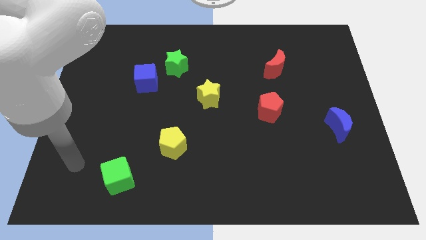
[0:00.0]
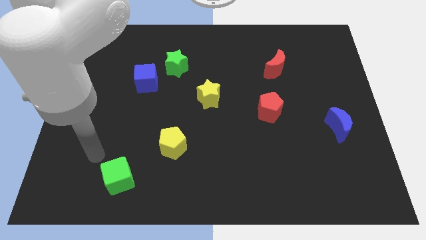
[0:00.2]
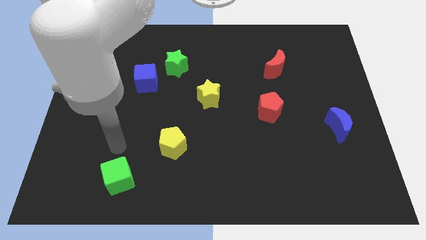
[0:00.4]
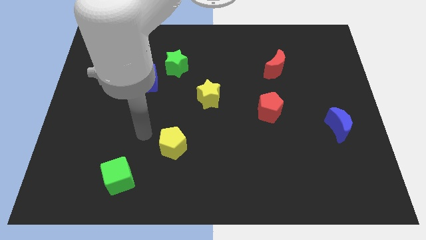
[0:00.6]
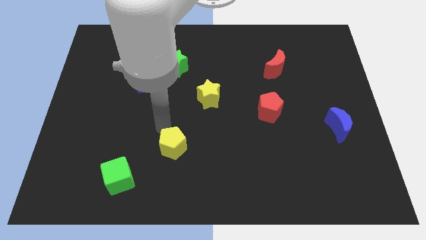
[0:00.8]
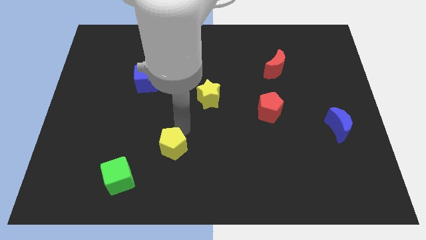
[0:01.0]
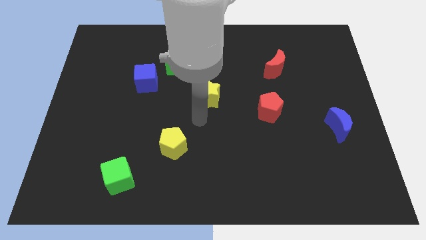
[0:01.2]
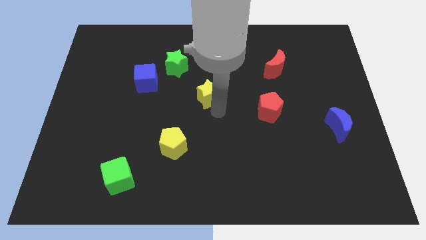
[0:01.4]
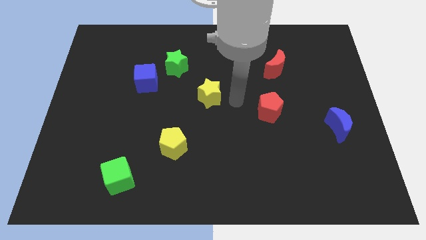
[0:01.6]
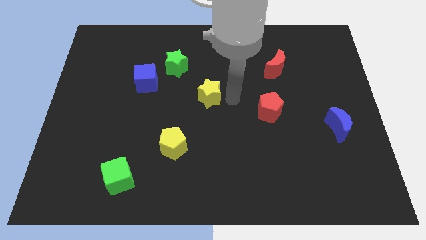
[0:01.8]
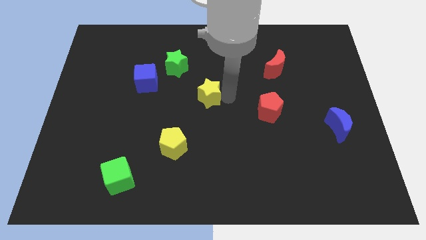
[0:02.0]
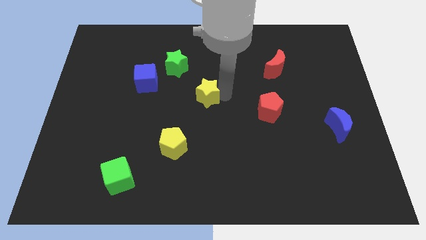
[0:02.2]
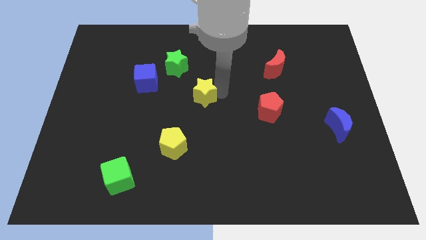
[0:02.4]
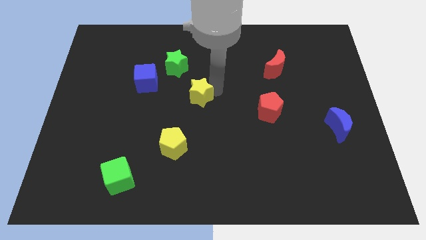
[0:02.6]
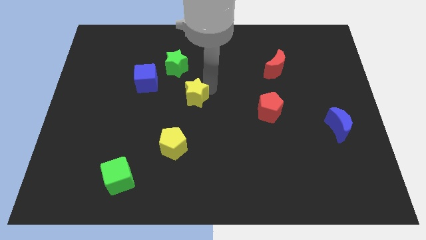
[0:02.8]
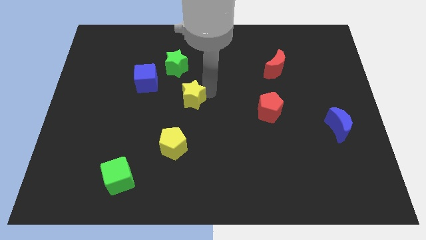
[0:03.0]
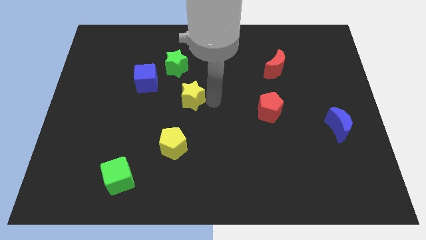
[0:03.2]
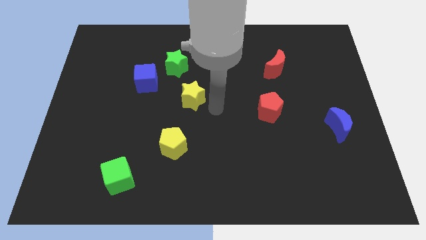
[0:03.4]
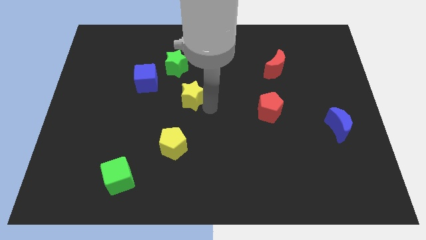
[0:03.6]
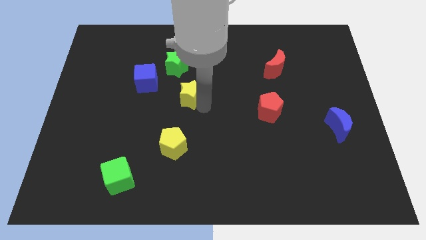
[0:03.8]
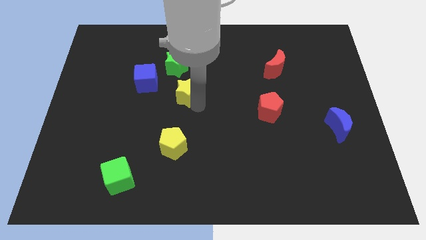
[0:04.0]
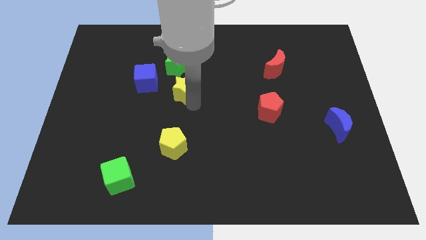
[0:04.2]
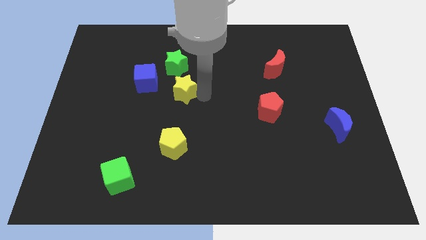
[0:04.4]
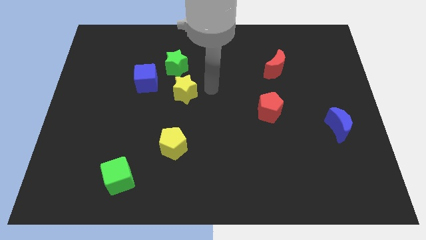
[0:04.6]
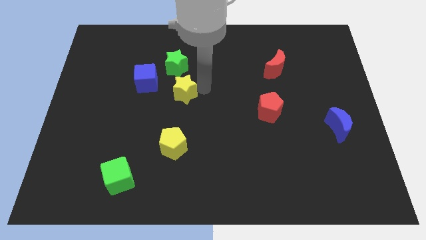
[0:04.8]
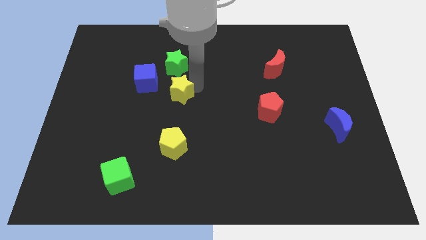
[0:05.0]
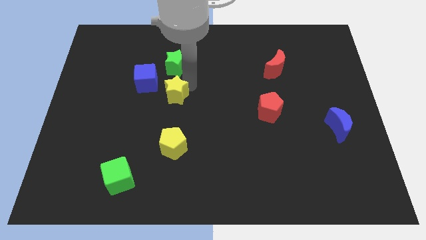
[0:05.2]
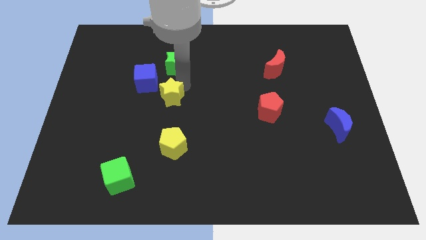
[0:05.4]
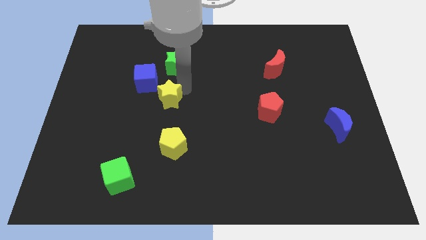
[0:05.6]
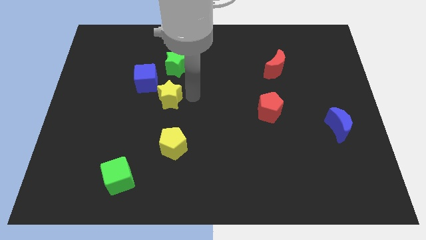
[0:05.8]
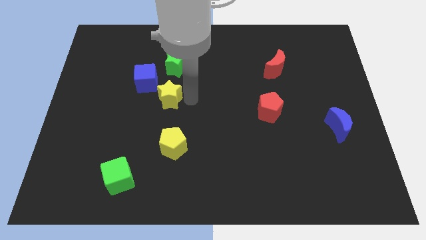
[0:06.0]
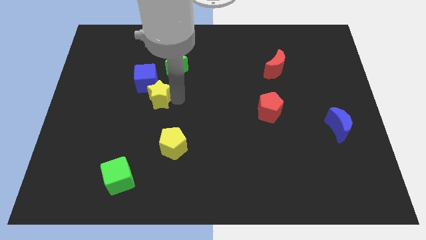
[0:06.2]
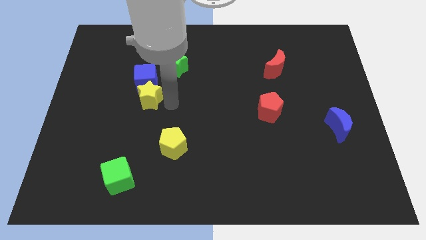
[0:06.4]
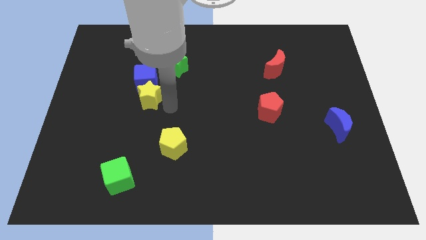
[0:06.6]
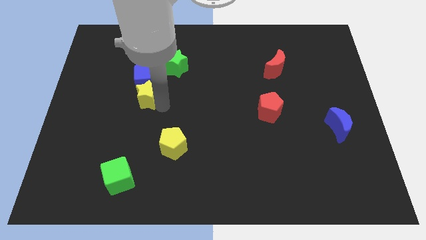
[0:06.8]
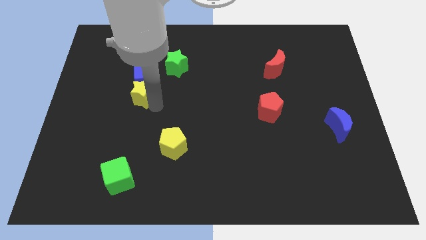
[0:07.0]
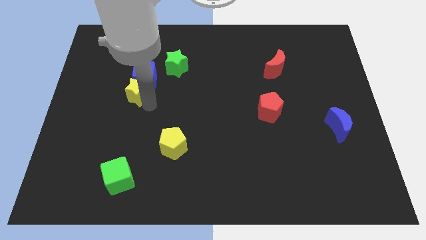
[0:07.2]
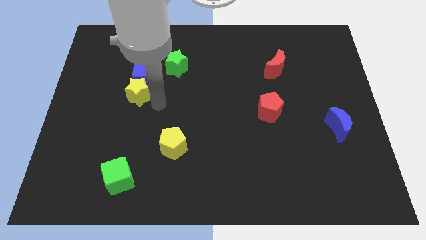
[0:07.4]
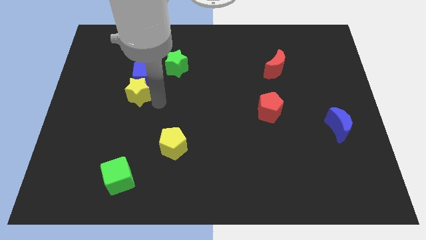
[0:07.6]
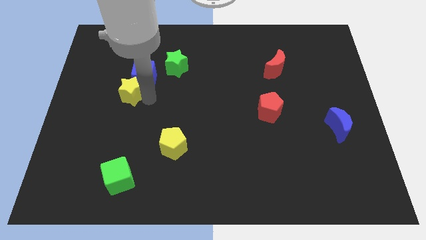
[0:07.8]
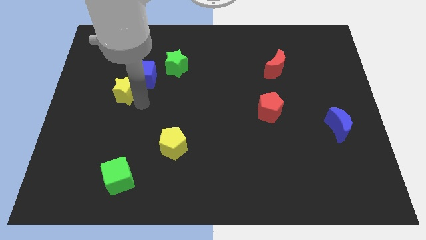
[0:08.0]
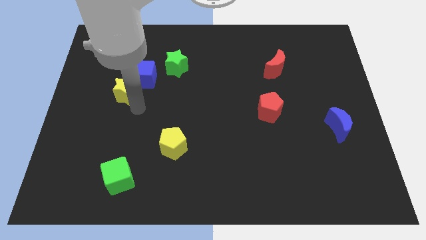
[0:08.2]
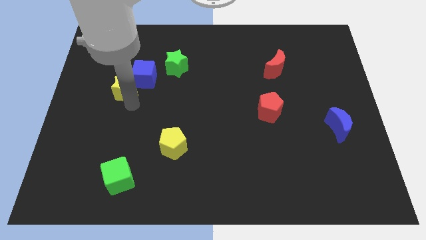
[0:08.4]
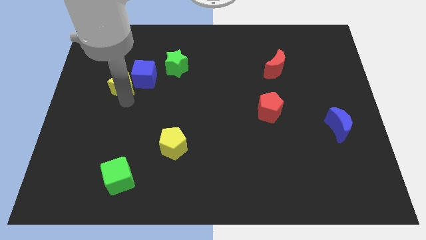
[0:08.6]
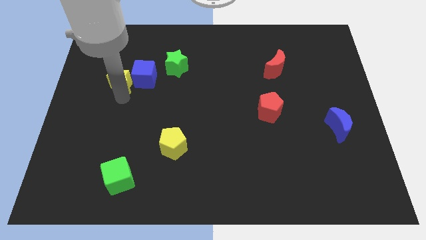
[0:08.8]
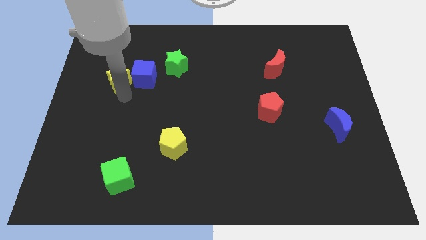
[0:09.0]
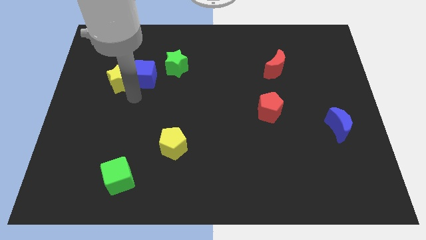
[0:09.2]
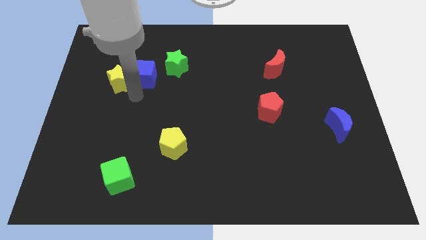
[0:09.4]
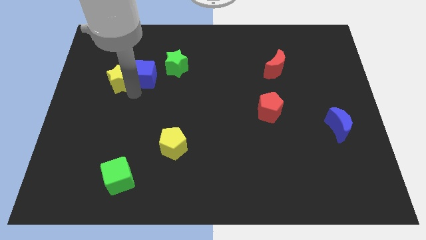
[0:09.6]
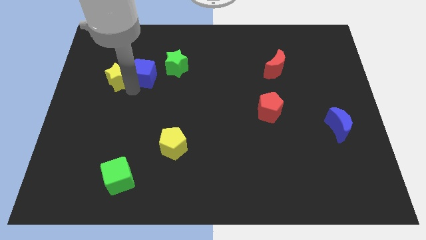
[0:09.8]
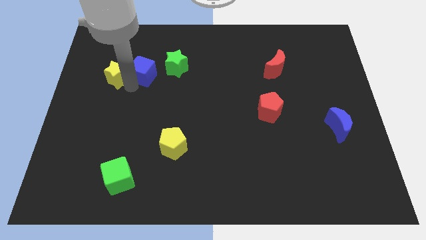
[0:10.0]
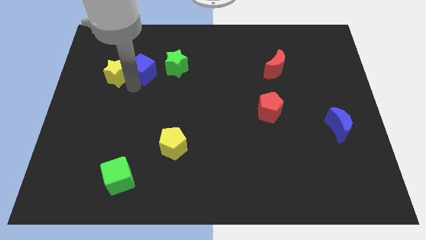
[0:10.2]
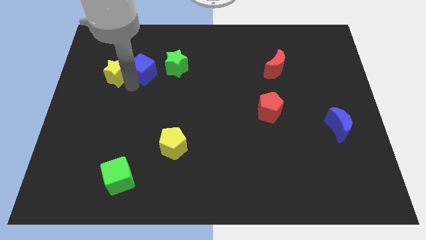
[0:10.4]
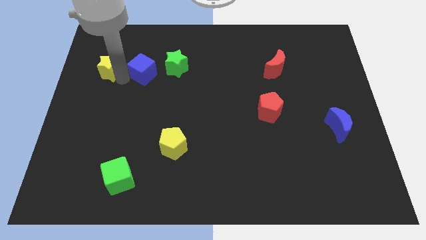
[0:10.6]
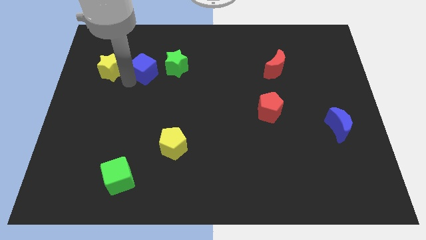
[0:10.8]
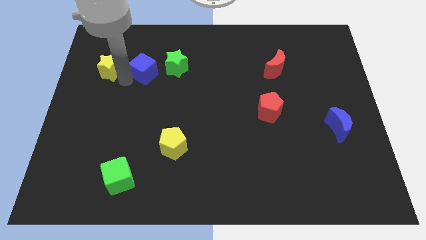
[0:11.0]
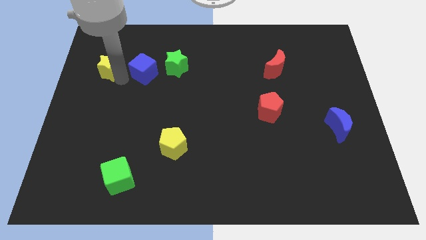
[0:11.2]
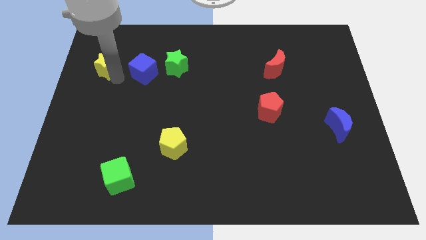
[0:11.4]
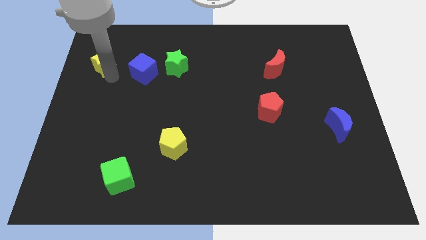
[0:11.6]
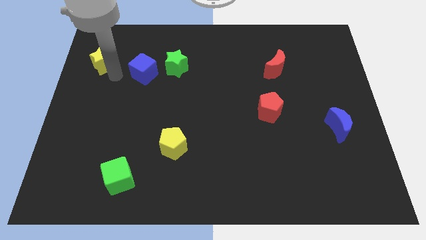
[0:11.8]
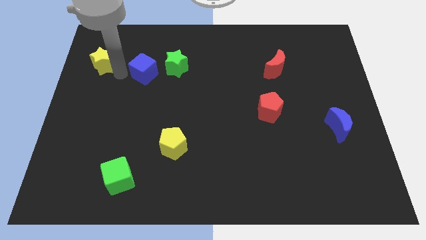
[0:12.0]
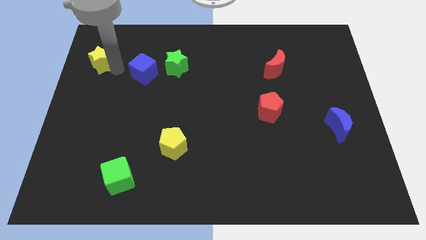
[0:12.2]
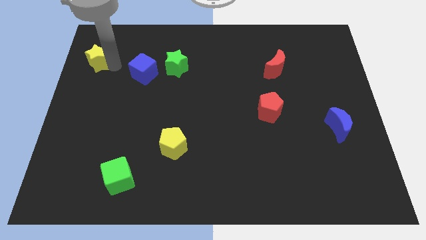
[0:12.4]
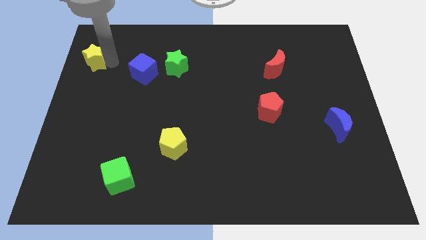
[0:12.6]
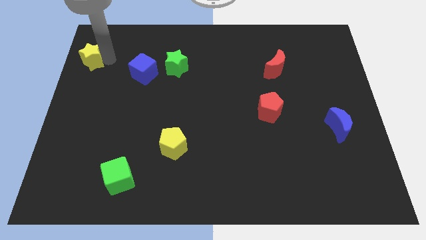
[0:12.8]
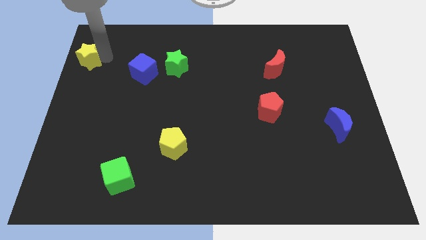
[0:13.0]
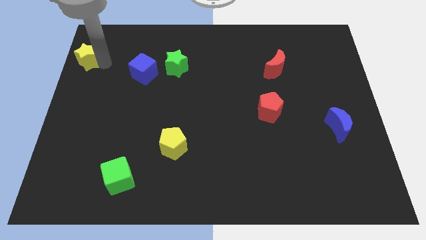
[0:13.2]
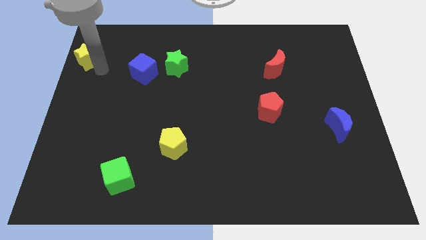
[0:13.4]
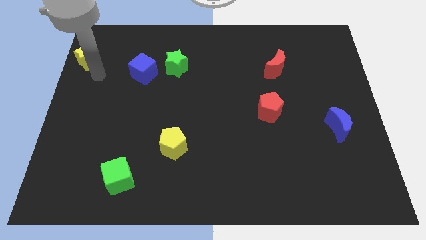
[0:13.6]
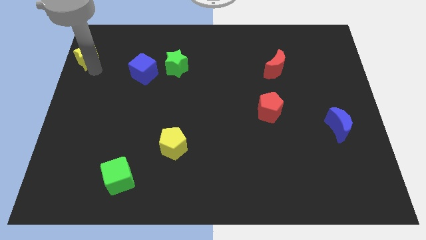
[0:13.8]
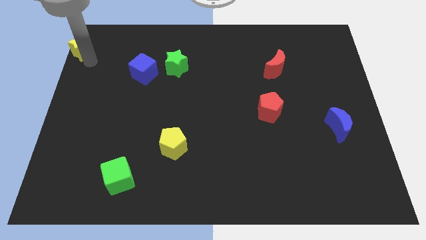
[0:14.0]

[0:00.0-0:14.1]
slide the yellow star to the top left of the board
